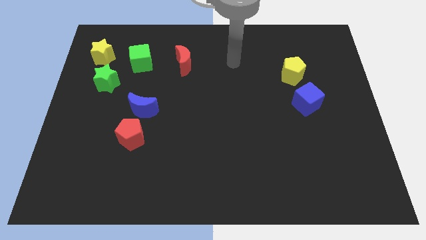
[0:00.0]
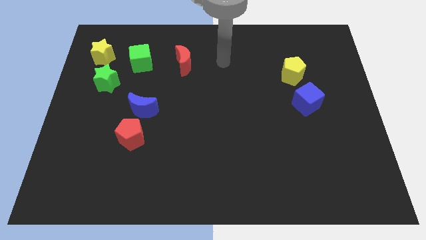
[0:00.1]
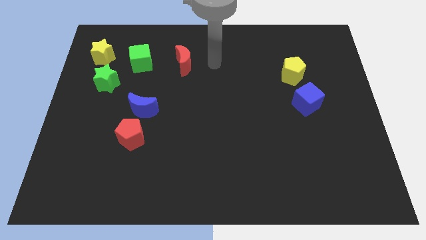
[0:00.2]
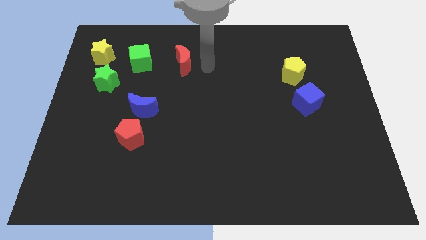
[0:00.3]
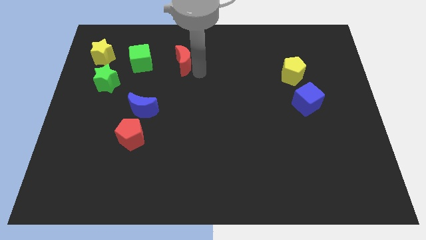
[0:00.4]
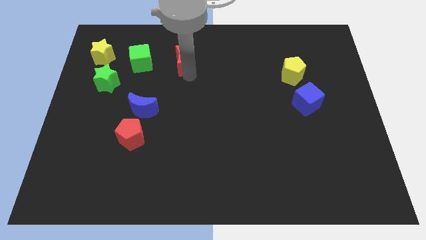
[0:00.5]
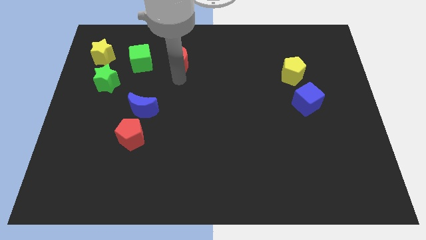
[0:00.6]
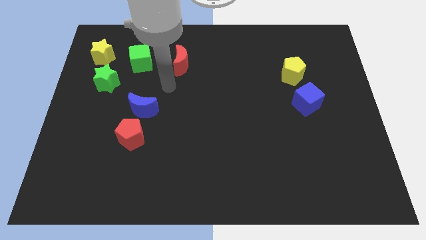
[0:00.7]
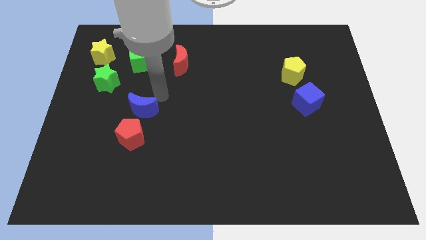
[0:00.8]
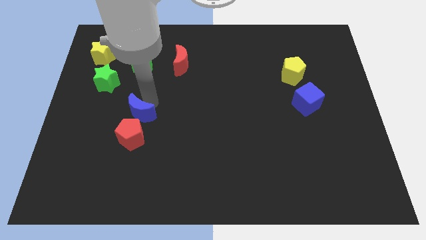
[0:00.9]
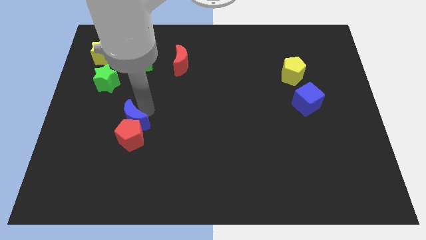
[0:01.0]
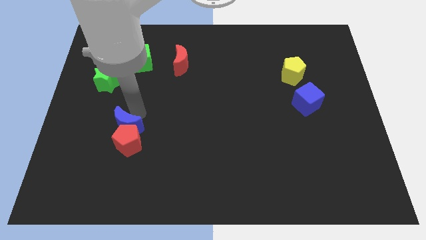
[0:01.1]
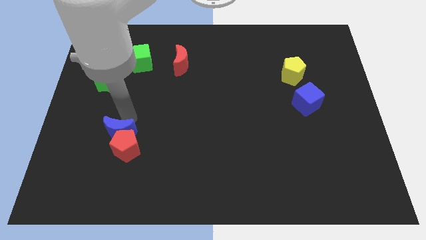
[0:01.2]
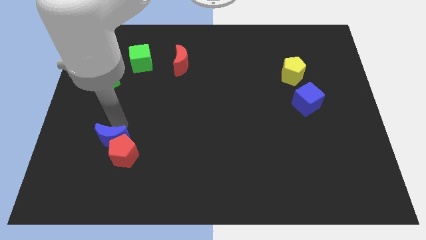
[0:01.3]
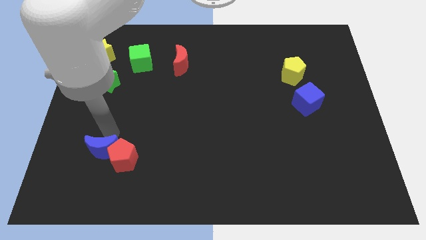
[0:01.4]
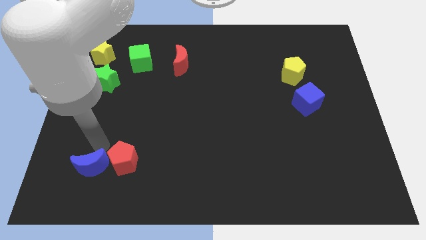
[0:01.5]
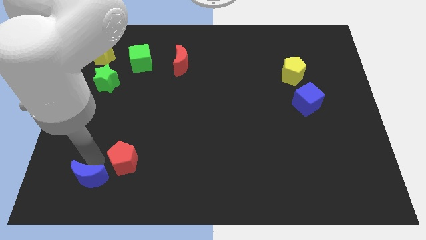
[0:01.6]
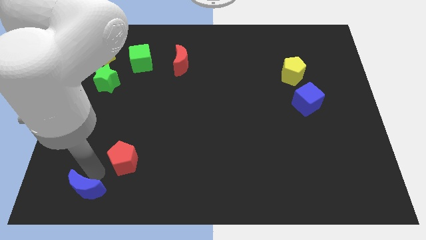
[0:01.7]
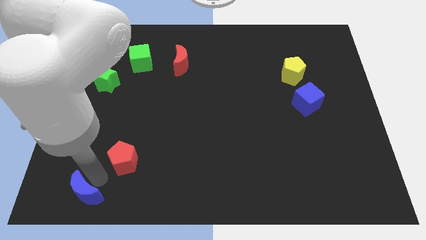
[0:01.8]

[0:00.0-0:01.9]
separate the red pentagon from the blue moon

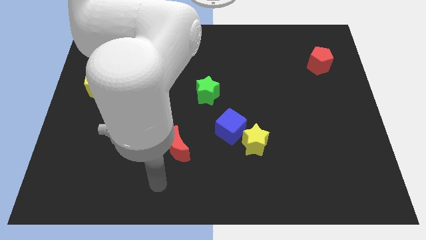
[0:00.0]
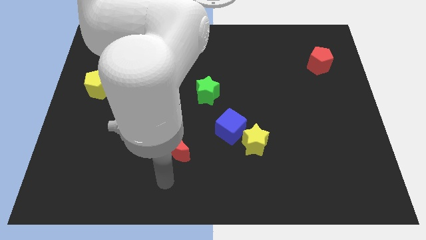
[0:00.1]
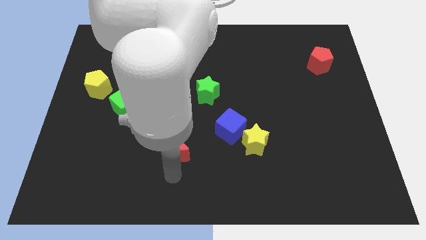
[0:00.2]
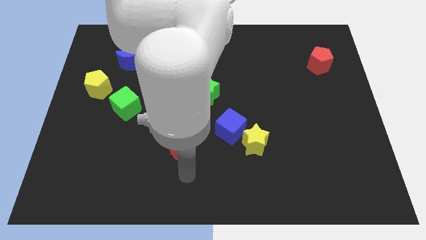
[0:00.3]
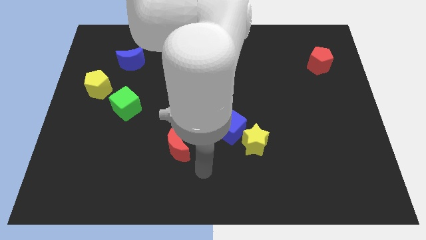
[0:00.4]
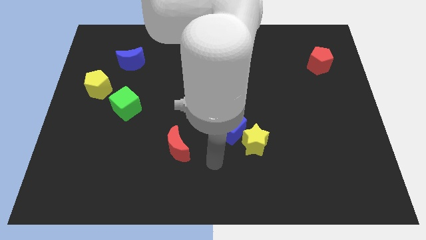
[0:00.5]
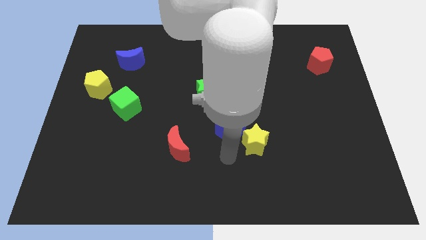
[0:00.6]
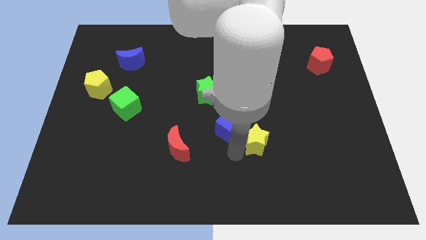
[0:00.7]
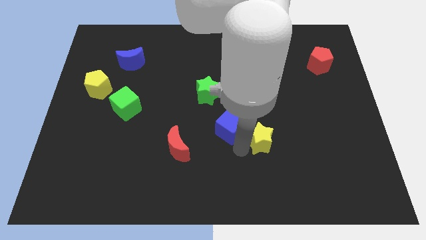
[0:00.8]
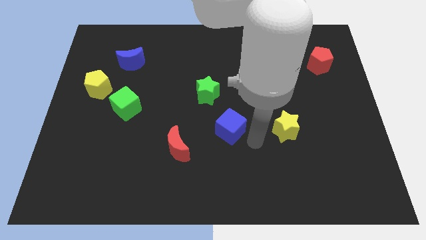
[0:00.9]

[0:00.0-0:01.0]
separate the blue cube from the yellow star

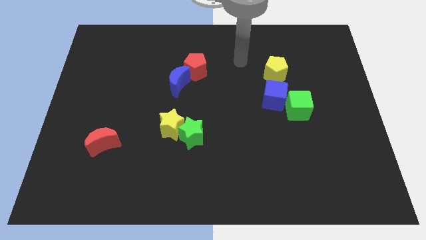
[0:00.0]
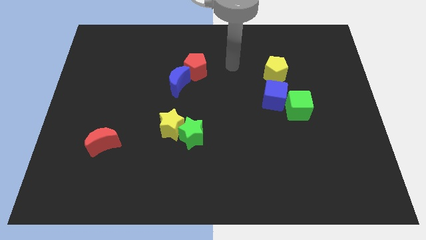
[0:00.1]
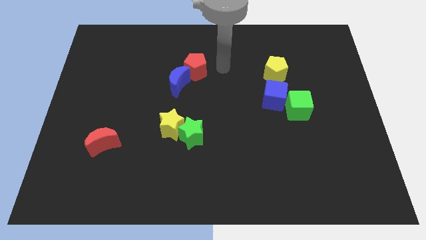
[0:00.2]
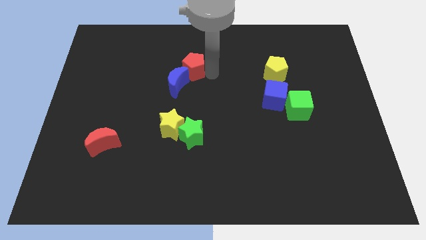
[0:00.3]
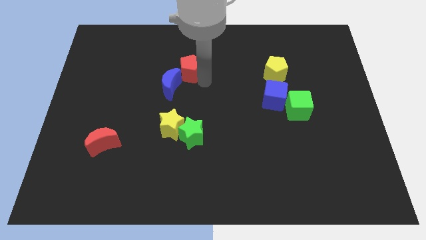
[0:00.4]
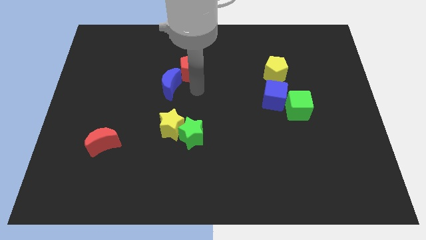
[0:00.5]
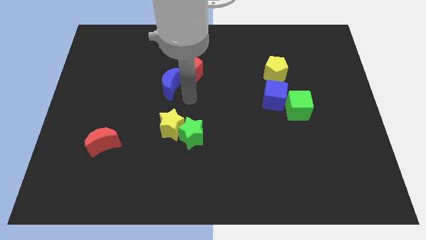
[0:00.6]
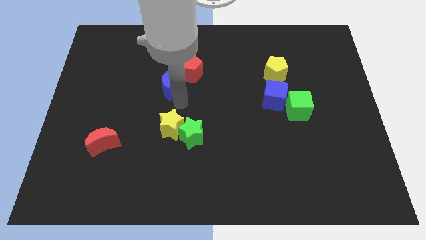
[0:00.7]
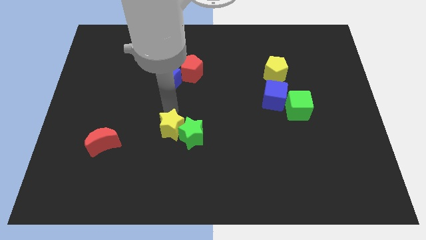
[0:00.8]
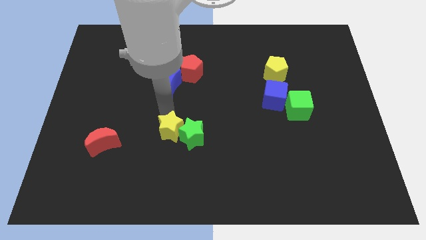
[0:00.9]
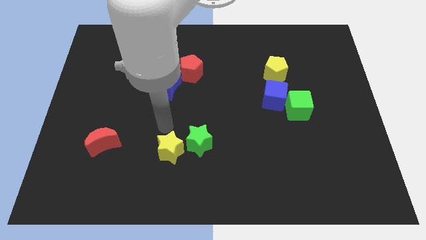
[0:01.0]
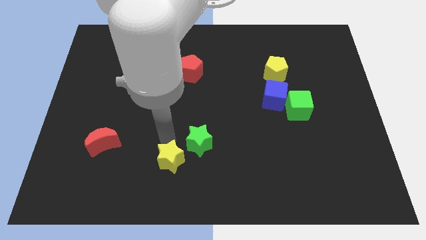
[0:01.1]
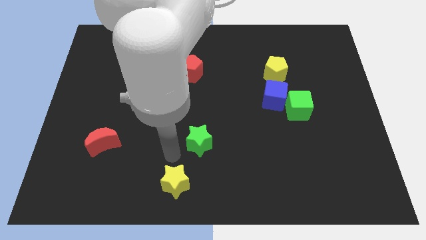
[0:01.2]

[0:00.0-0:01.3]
pull the green star apart from the yellow star

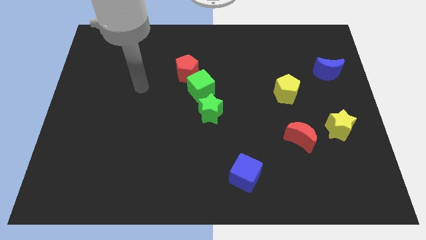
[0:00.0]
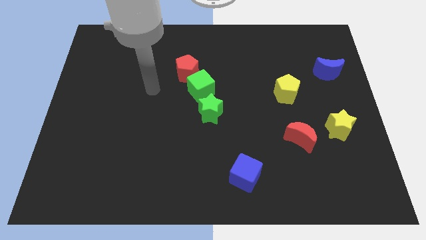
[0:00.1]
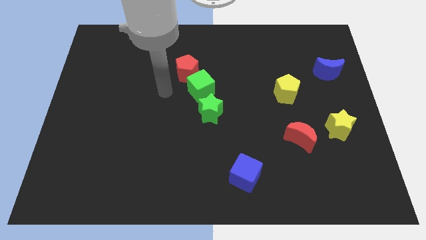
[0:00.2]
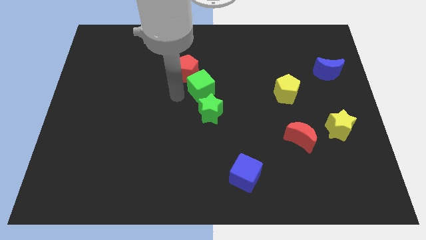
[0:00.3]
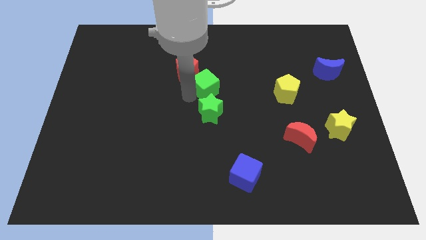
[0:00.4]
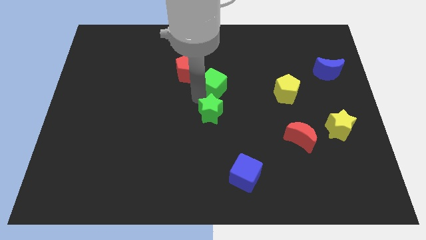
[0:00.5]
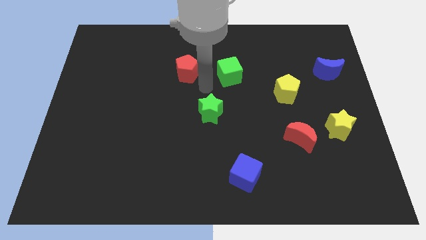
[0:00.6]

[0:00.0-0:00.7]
pull the red pentagon apart from the green cube

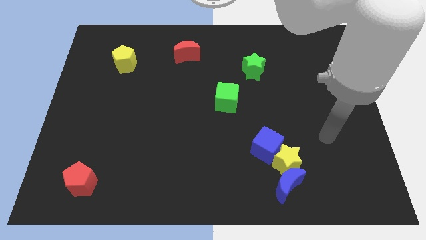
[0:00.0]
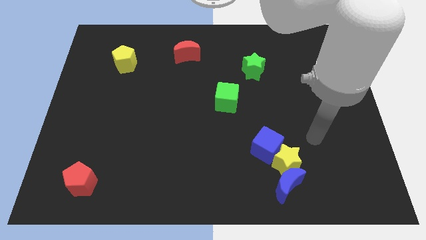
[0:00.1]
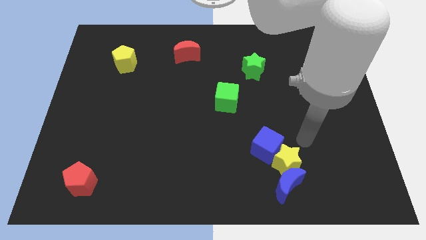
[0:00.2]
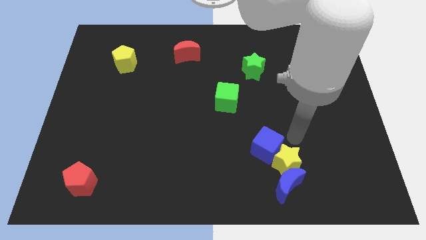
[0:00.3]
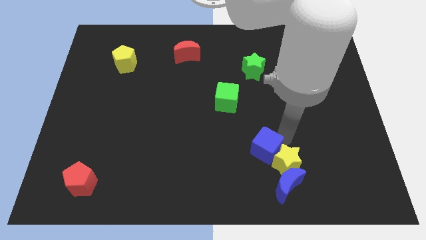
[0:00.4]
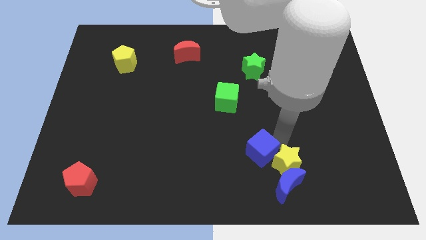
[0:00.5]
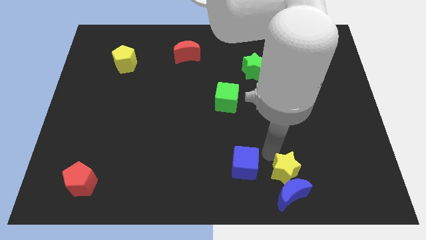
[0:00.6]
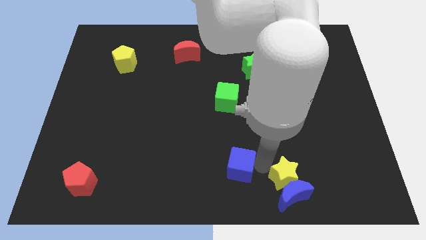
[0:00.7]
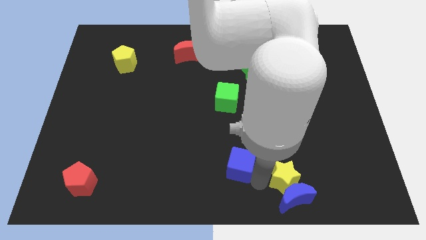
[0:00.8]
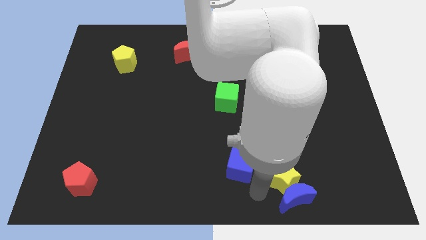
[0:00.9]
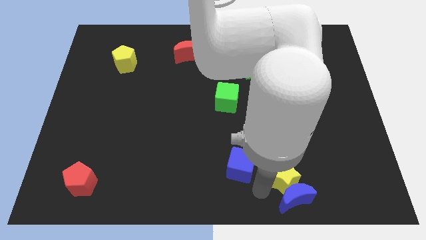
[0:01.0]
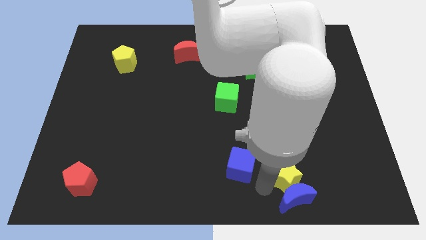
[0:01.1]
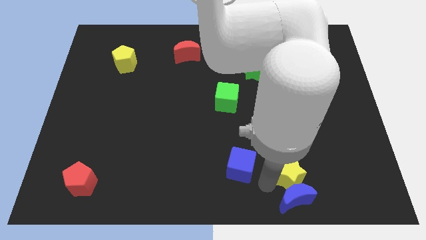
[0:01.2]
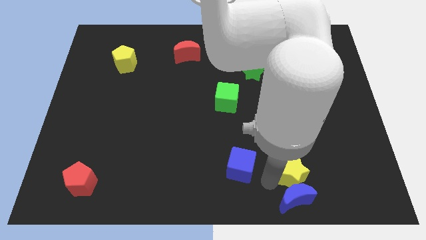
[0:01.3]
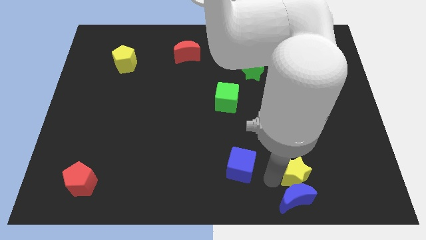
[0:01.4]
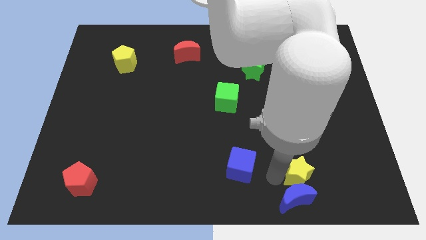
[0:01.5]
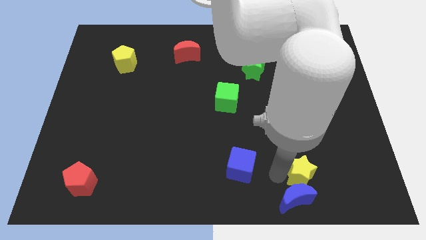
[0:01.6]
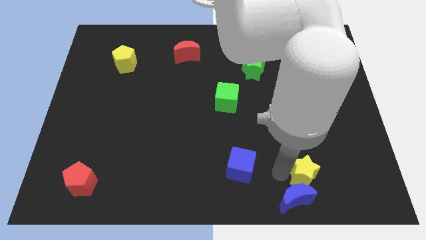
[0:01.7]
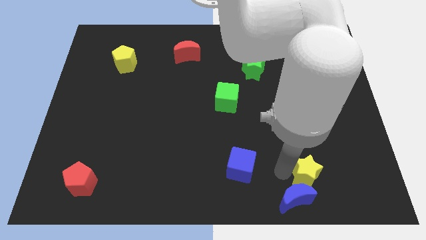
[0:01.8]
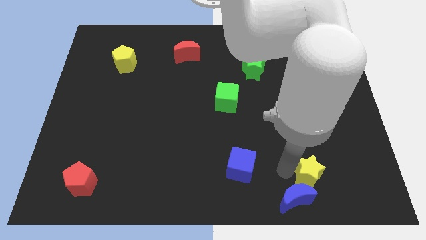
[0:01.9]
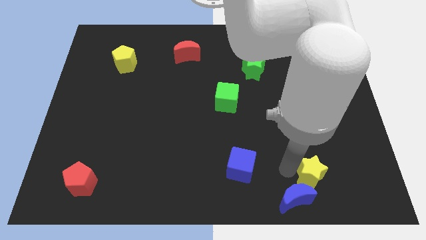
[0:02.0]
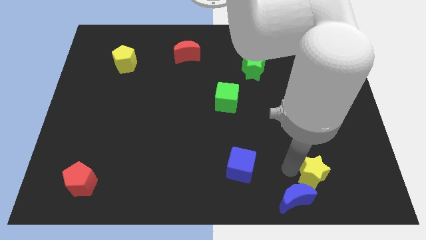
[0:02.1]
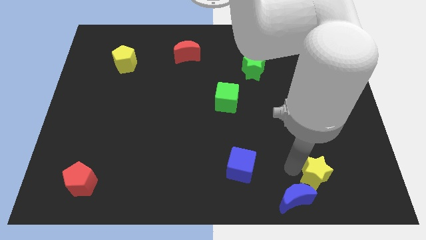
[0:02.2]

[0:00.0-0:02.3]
pull the yellow star apart from the blue moon and blue cube

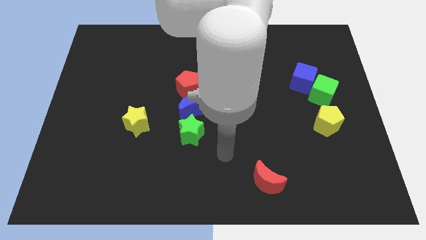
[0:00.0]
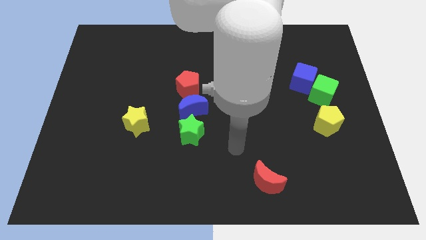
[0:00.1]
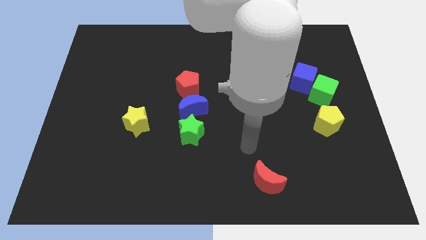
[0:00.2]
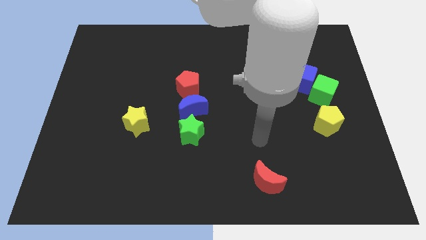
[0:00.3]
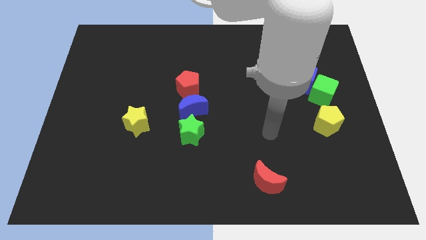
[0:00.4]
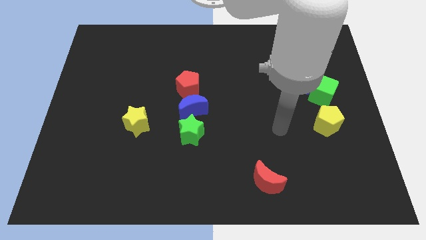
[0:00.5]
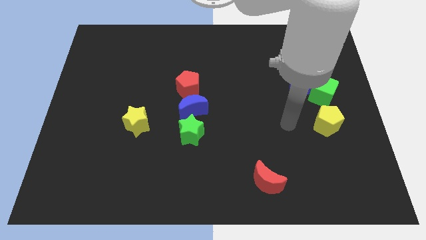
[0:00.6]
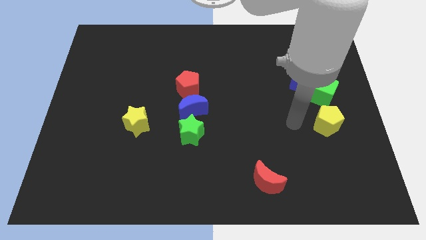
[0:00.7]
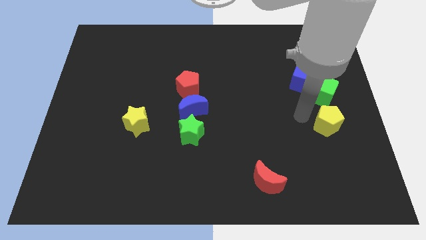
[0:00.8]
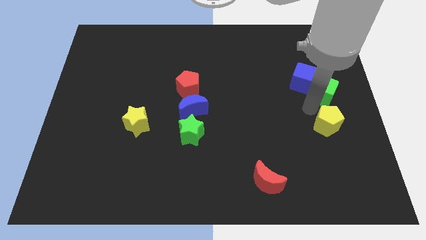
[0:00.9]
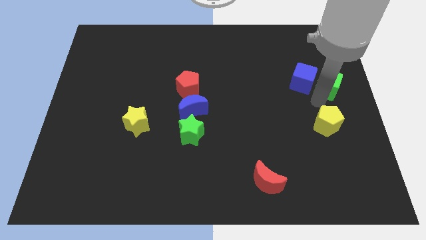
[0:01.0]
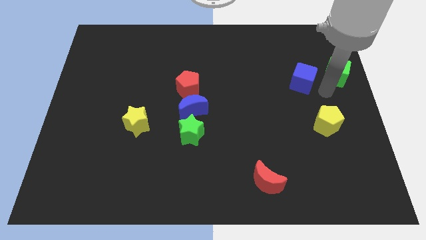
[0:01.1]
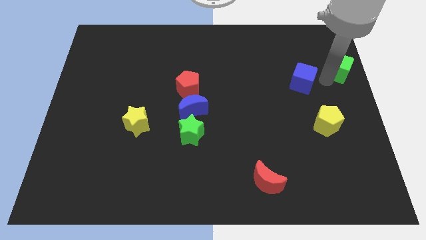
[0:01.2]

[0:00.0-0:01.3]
move the blue cube away from the green cube

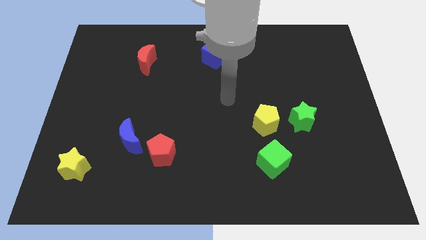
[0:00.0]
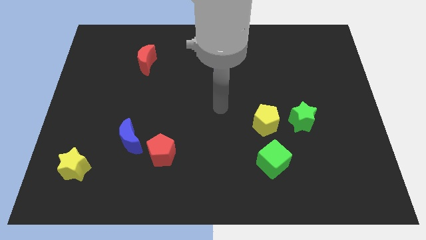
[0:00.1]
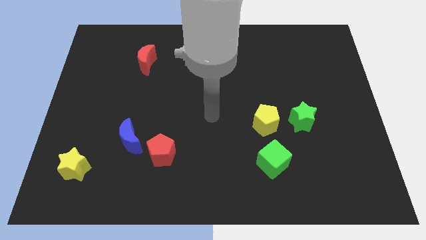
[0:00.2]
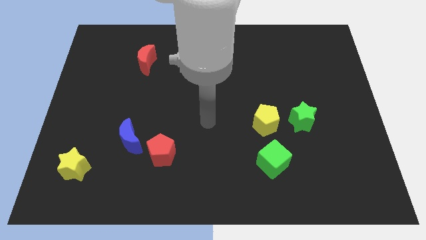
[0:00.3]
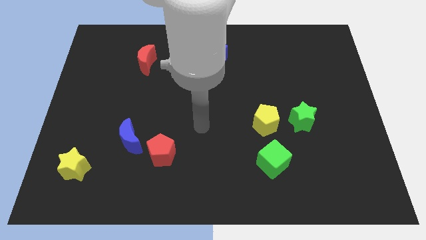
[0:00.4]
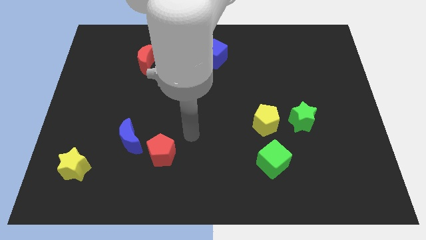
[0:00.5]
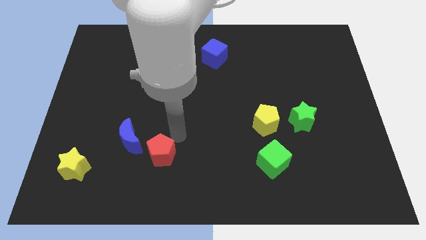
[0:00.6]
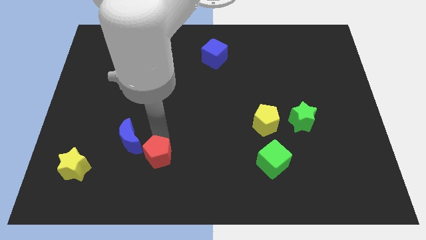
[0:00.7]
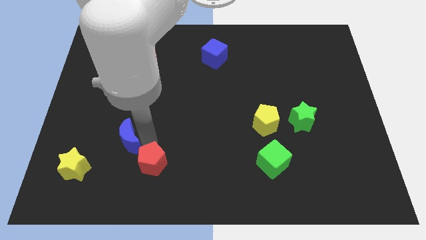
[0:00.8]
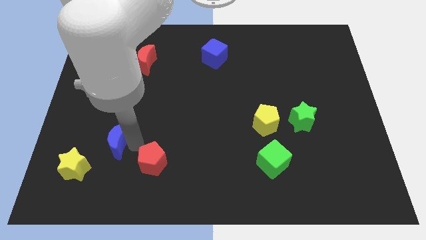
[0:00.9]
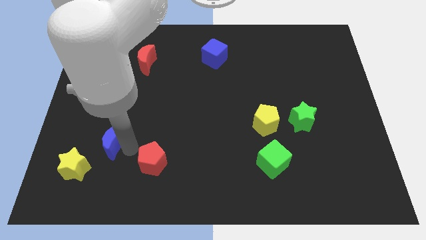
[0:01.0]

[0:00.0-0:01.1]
pull the red pentagon apart from the blue moon
